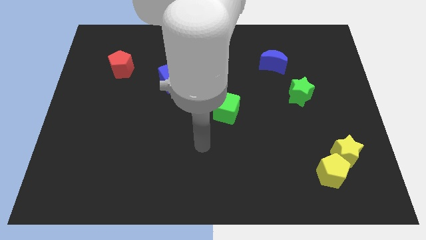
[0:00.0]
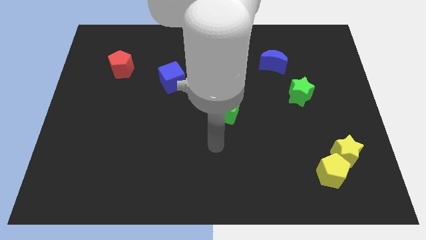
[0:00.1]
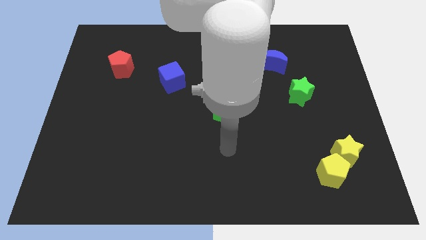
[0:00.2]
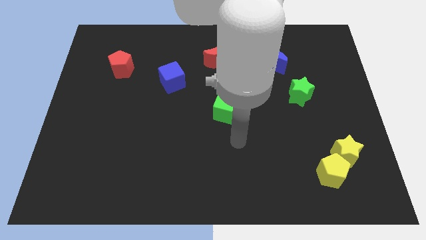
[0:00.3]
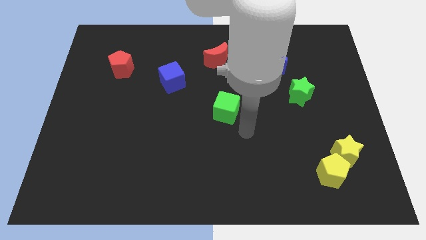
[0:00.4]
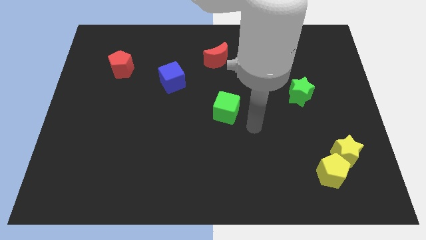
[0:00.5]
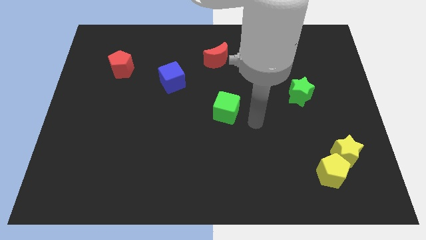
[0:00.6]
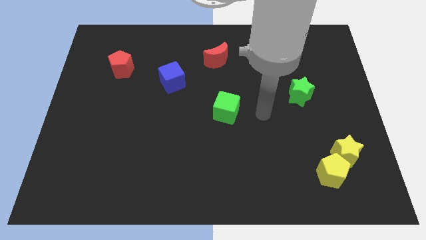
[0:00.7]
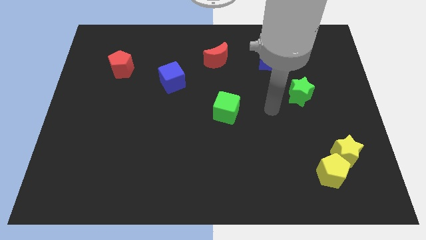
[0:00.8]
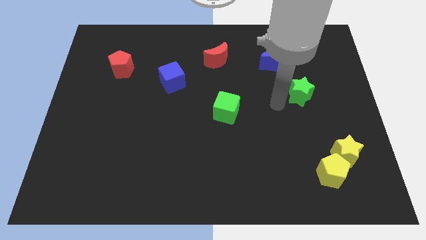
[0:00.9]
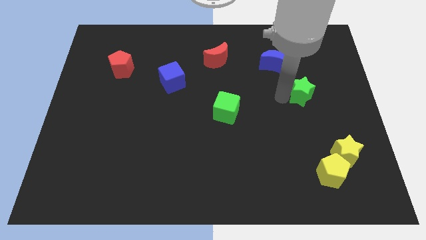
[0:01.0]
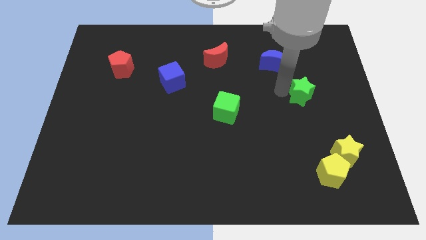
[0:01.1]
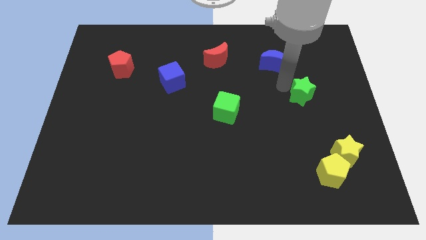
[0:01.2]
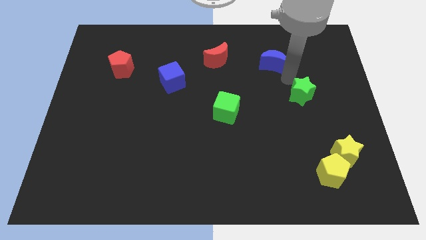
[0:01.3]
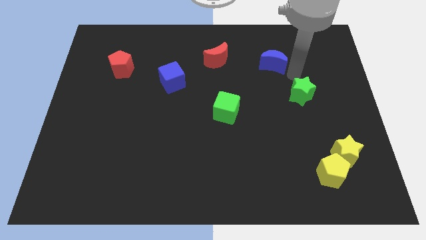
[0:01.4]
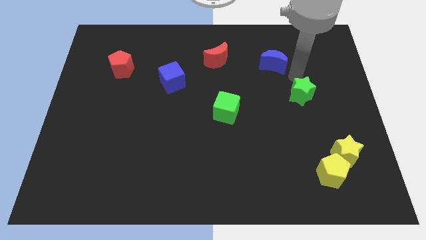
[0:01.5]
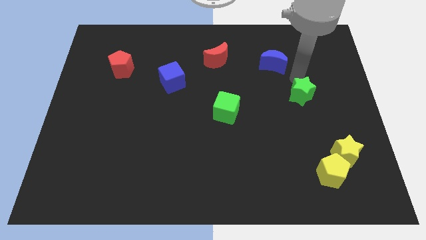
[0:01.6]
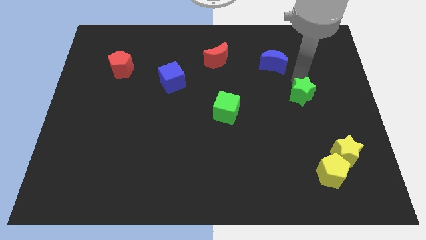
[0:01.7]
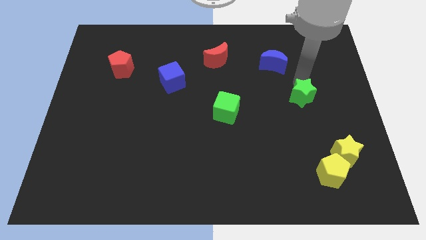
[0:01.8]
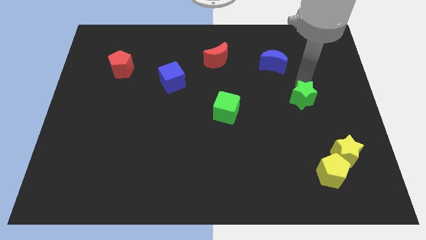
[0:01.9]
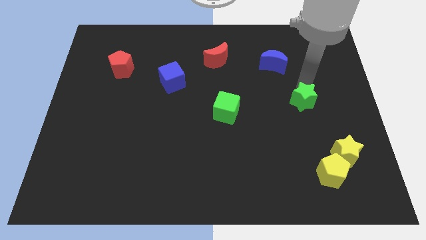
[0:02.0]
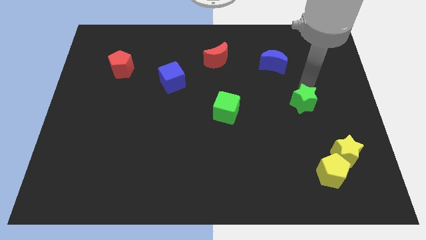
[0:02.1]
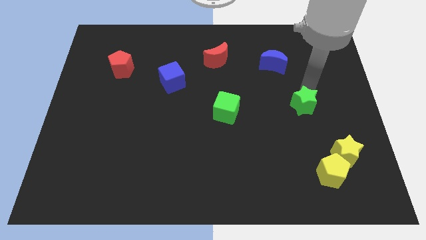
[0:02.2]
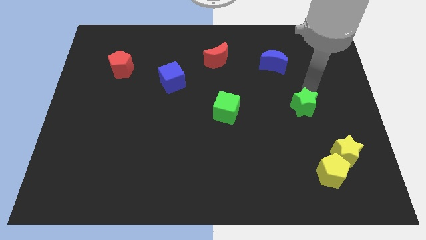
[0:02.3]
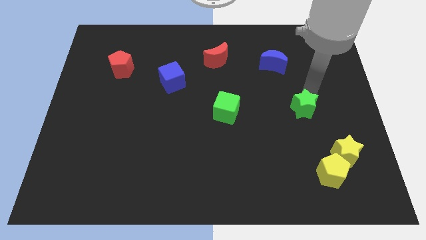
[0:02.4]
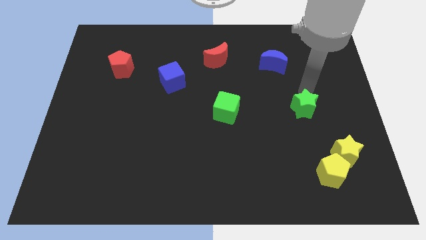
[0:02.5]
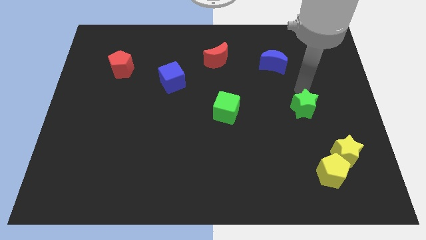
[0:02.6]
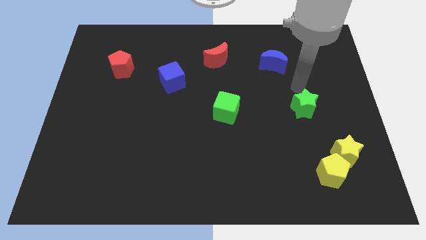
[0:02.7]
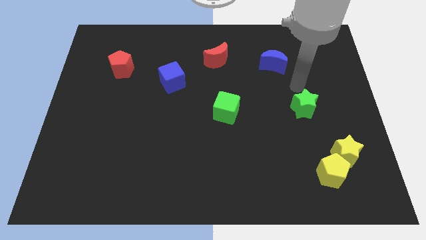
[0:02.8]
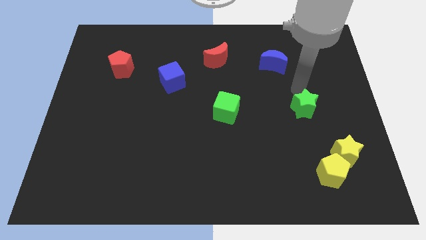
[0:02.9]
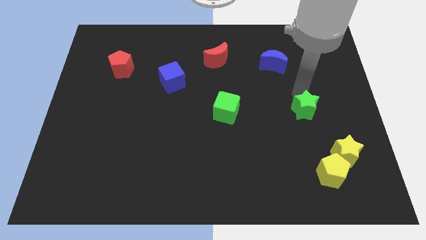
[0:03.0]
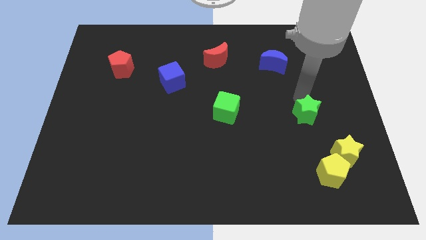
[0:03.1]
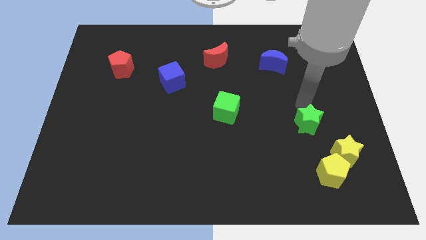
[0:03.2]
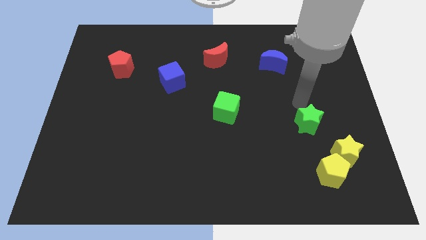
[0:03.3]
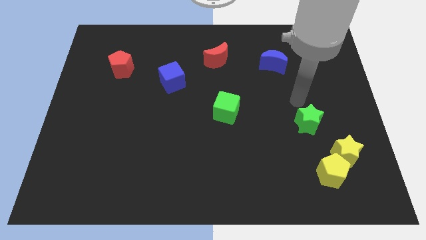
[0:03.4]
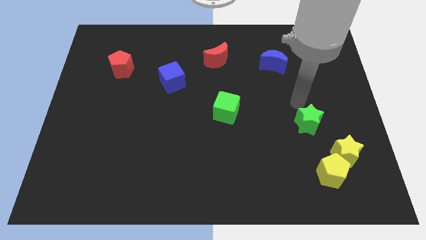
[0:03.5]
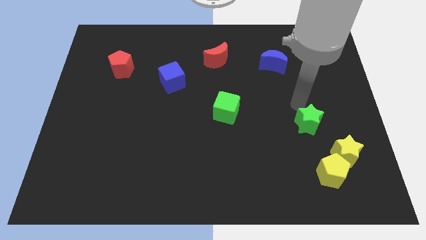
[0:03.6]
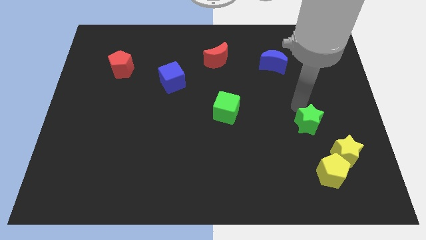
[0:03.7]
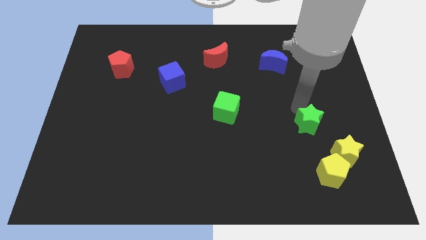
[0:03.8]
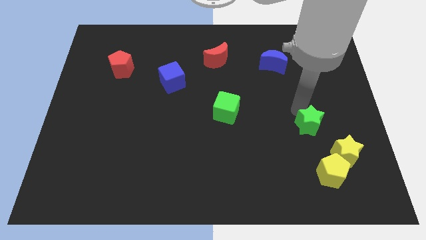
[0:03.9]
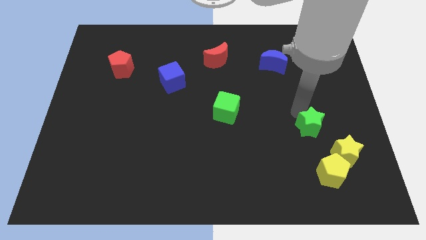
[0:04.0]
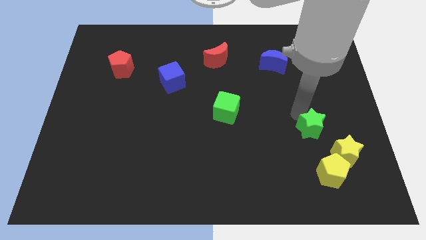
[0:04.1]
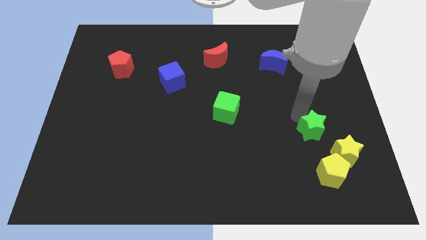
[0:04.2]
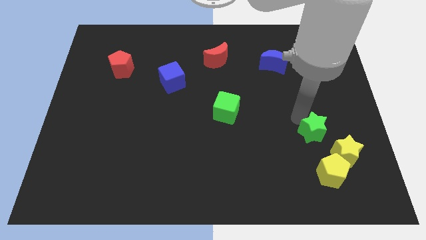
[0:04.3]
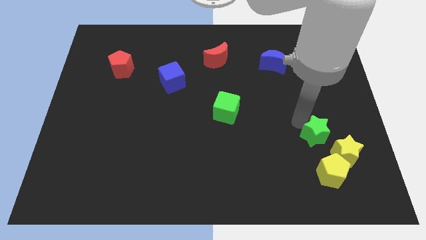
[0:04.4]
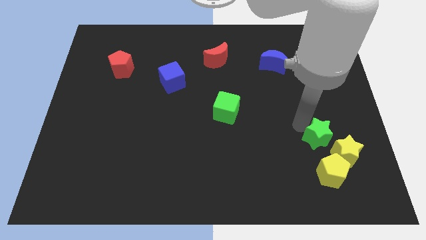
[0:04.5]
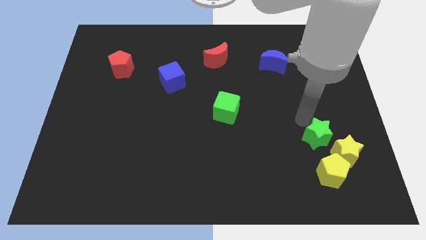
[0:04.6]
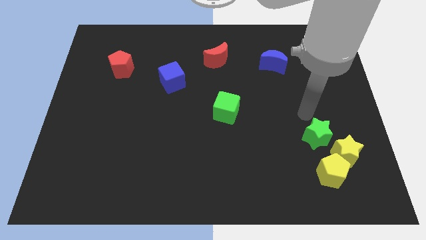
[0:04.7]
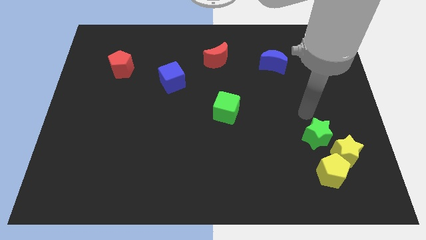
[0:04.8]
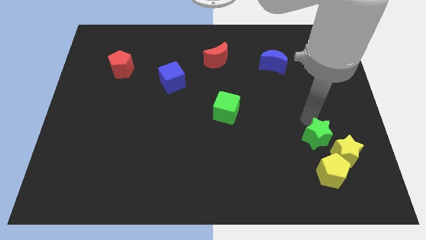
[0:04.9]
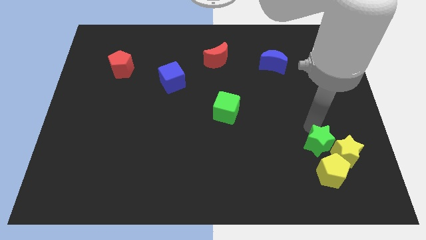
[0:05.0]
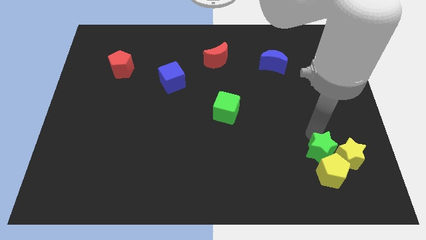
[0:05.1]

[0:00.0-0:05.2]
move the green star to the yellow pentagon

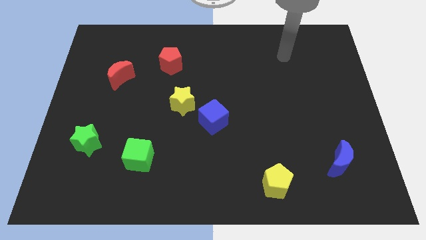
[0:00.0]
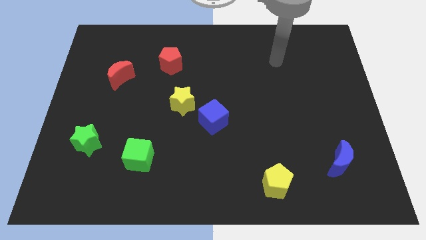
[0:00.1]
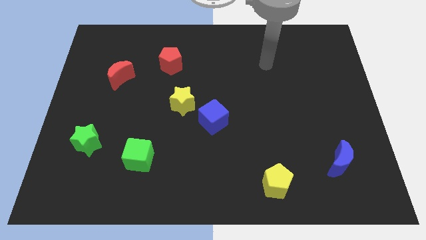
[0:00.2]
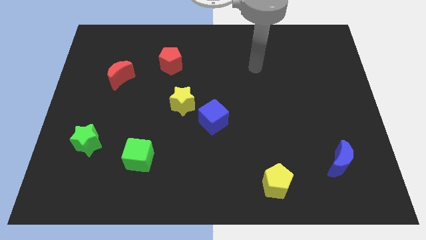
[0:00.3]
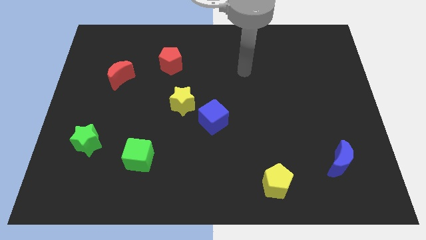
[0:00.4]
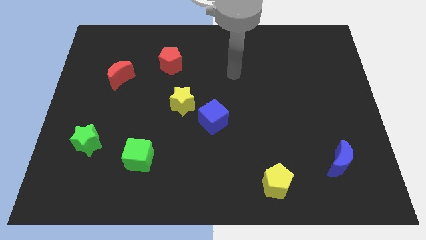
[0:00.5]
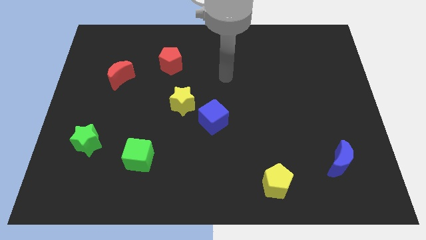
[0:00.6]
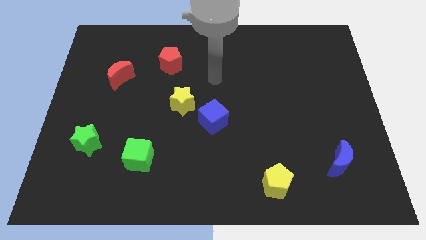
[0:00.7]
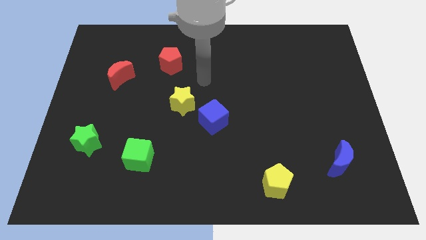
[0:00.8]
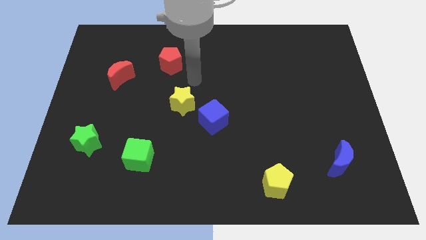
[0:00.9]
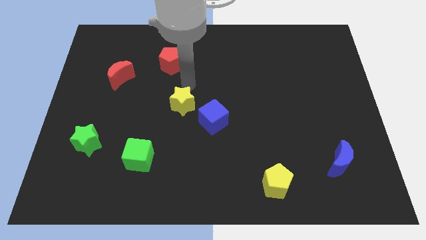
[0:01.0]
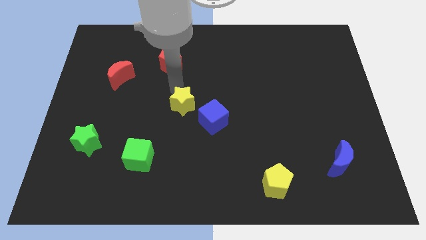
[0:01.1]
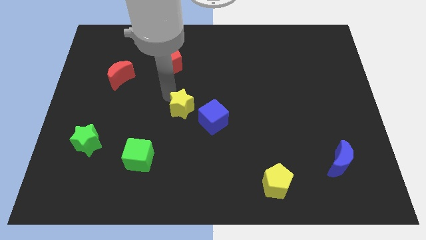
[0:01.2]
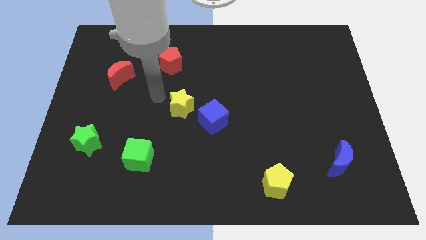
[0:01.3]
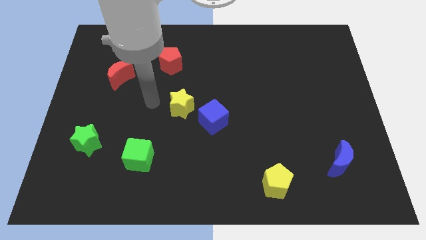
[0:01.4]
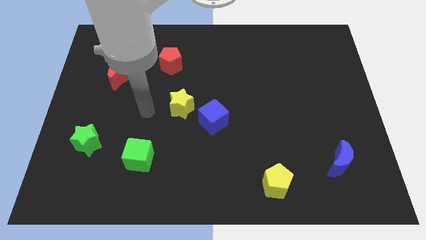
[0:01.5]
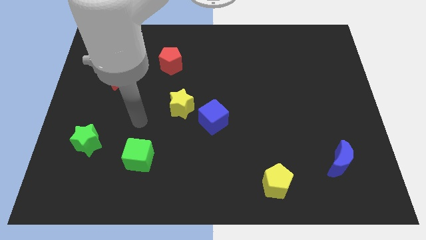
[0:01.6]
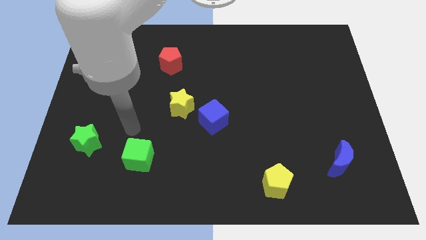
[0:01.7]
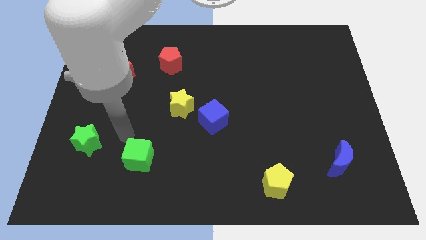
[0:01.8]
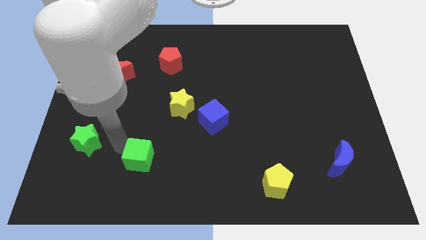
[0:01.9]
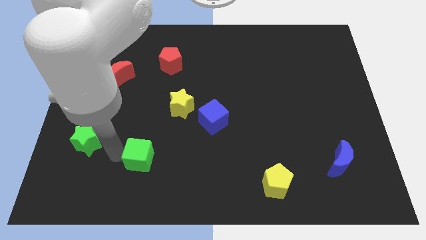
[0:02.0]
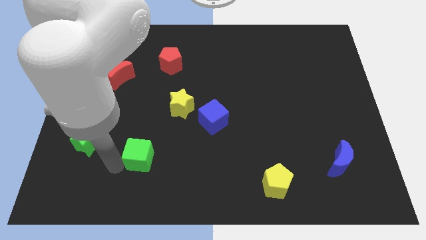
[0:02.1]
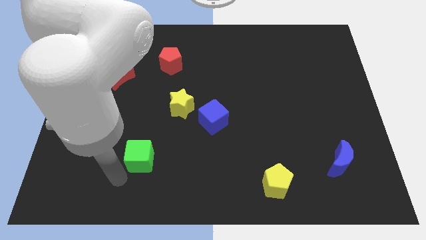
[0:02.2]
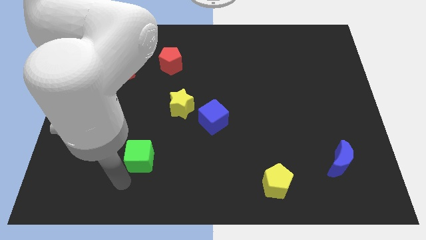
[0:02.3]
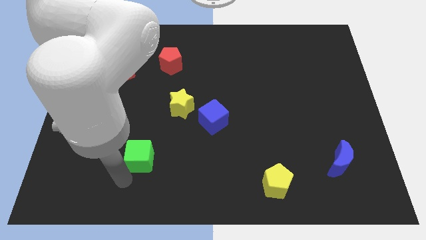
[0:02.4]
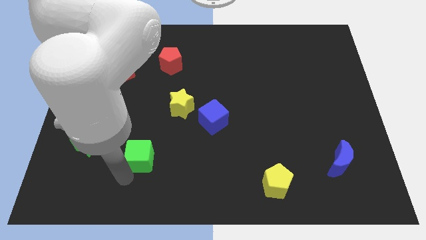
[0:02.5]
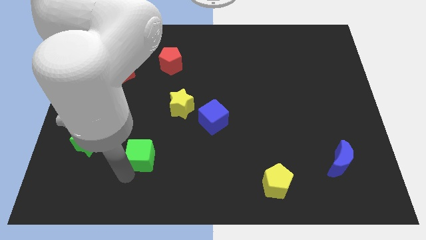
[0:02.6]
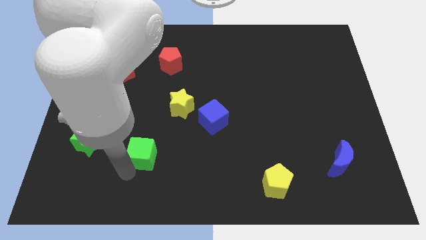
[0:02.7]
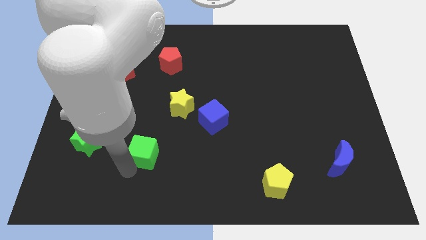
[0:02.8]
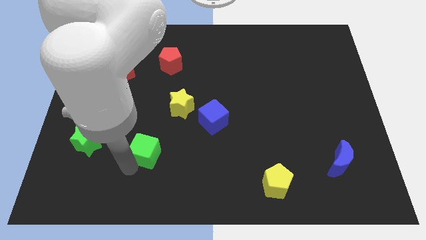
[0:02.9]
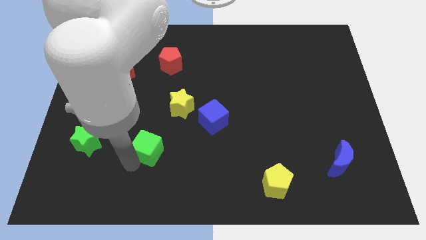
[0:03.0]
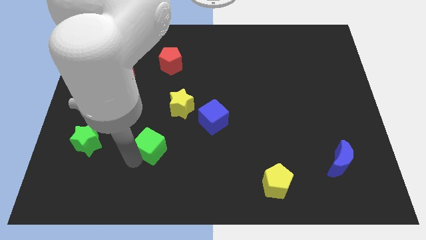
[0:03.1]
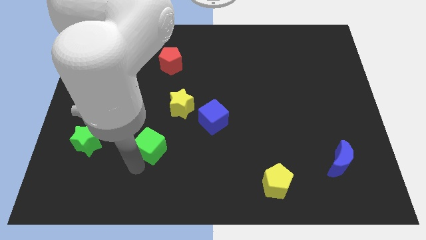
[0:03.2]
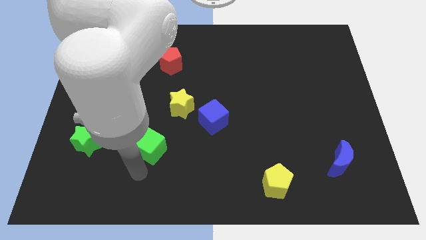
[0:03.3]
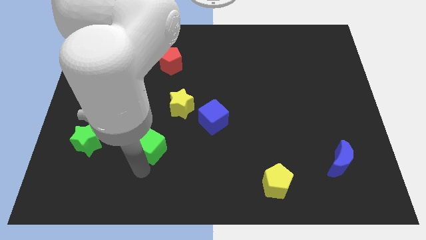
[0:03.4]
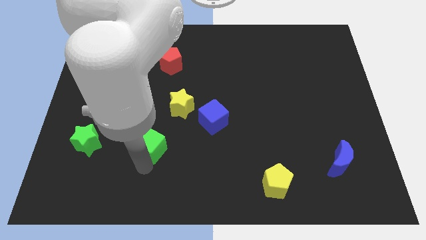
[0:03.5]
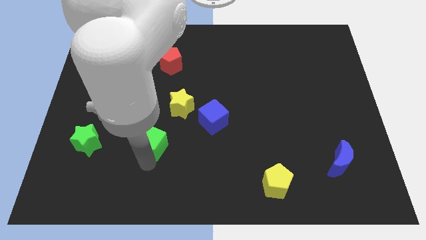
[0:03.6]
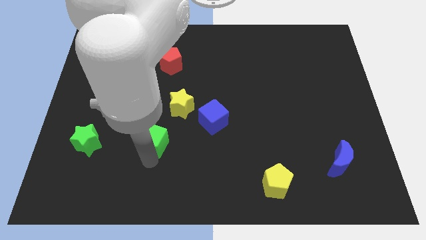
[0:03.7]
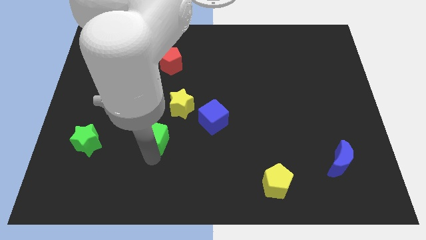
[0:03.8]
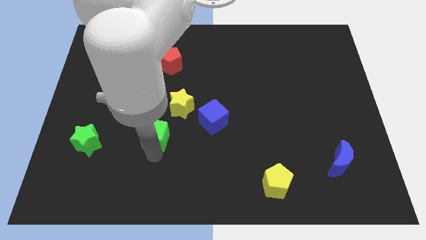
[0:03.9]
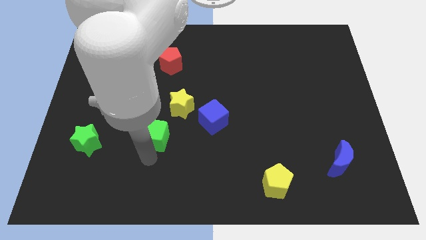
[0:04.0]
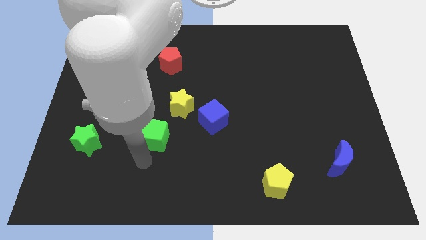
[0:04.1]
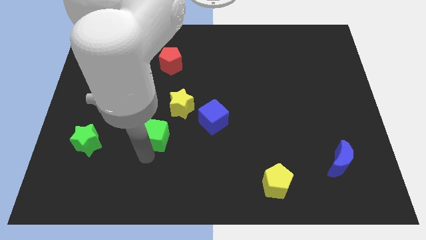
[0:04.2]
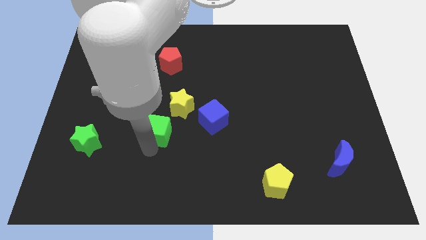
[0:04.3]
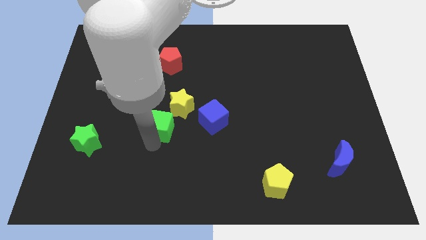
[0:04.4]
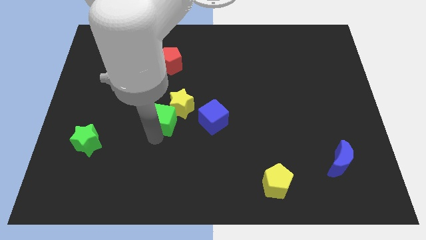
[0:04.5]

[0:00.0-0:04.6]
move the green cube close to the yellow star
